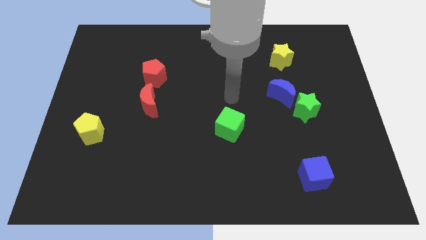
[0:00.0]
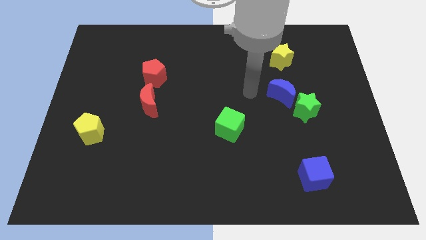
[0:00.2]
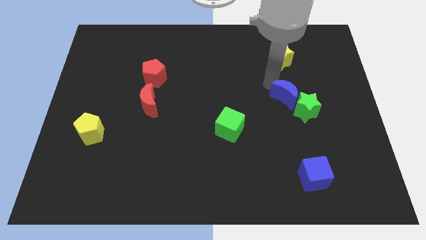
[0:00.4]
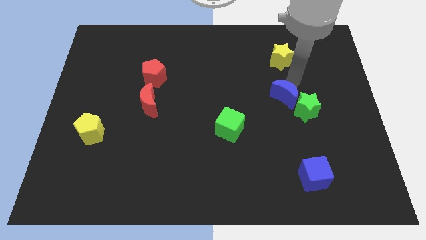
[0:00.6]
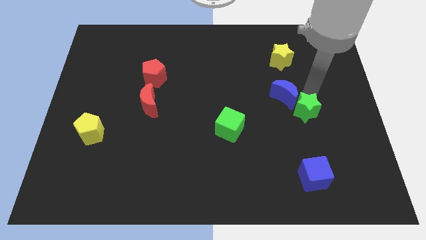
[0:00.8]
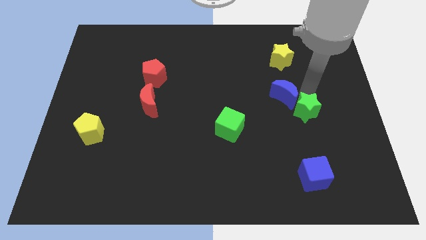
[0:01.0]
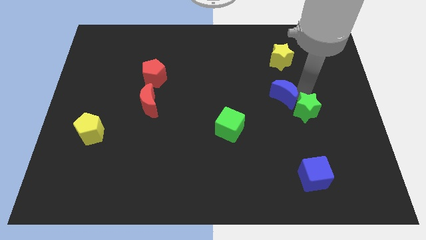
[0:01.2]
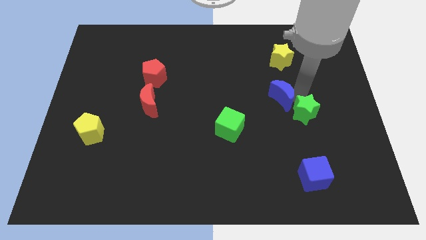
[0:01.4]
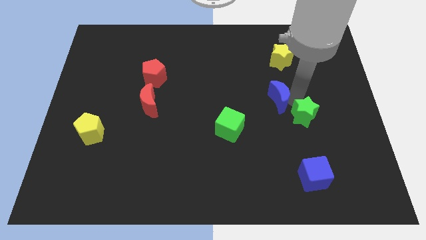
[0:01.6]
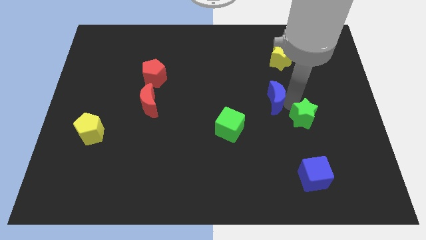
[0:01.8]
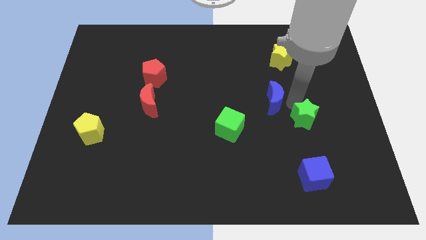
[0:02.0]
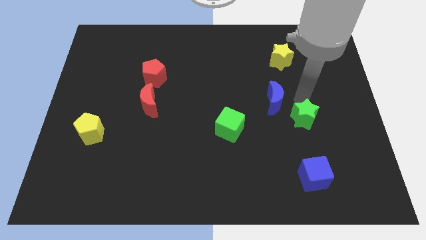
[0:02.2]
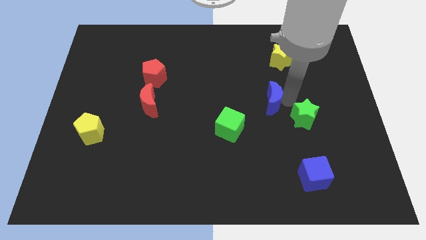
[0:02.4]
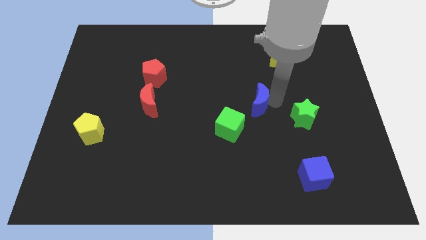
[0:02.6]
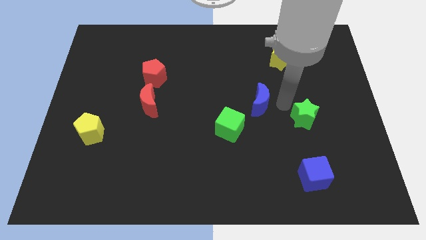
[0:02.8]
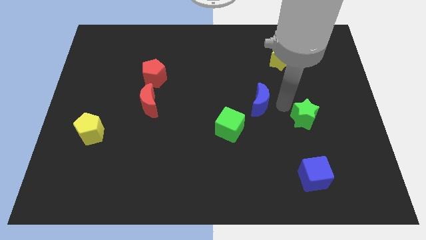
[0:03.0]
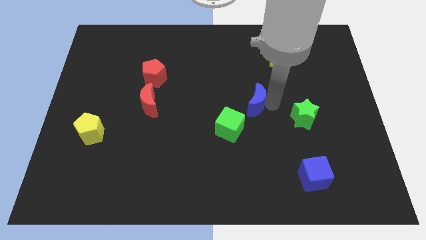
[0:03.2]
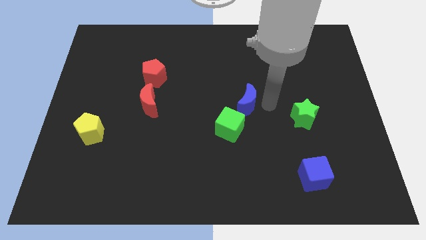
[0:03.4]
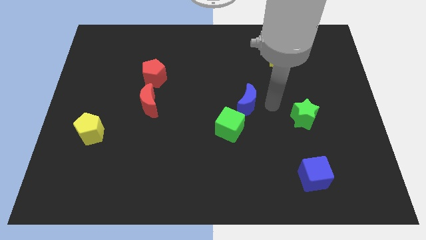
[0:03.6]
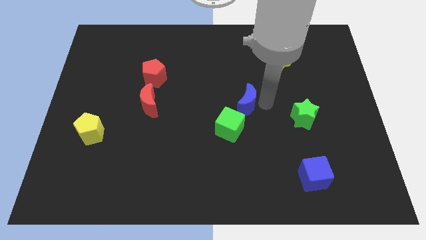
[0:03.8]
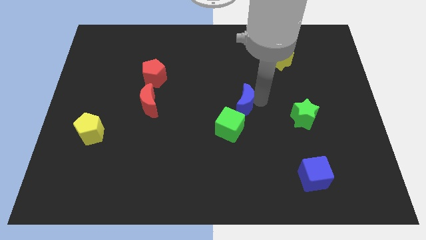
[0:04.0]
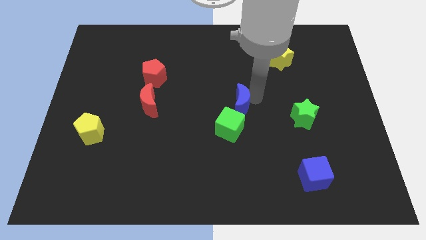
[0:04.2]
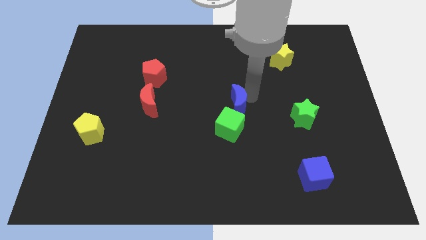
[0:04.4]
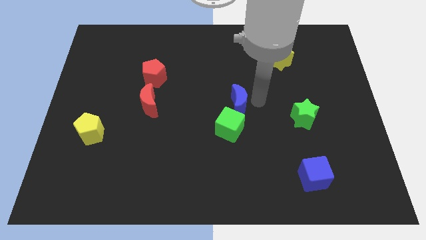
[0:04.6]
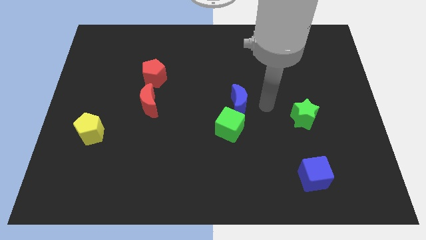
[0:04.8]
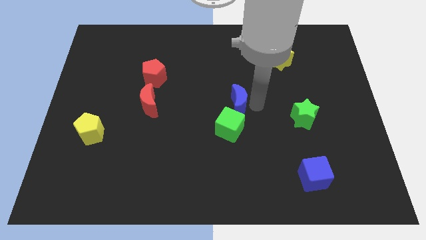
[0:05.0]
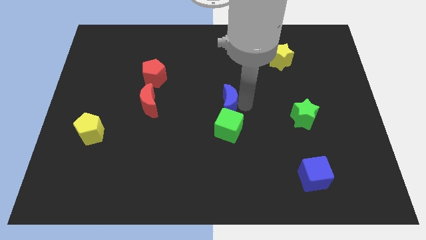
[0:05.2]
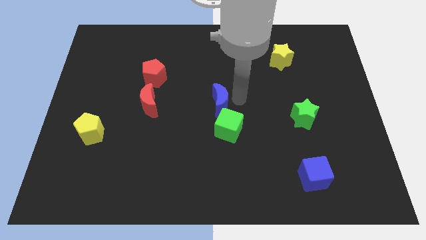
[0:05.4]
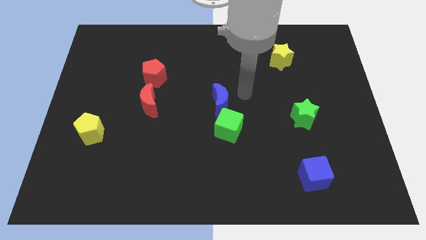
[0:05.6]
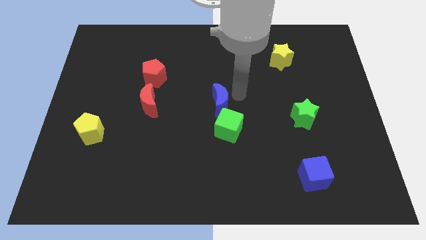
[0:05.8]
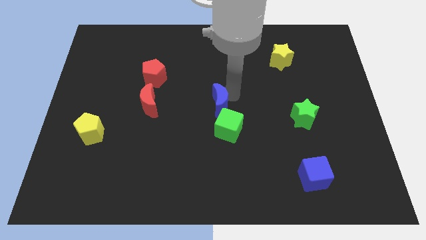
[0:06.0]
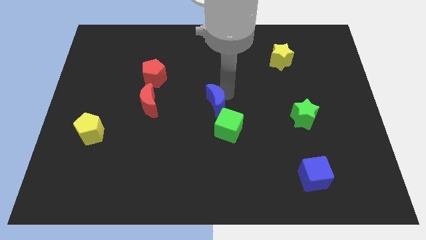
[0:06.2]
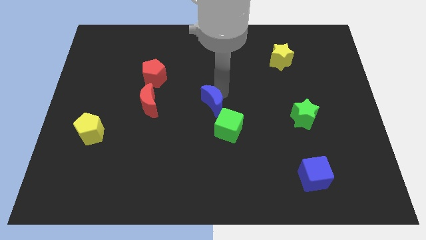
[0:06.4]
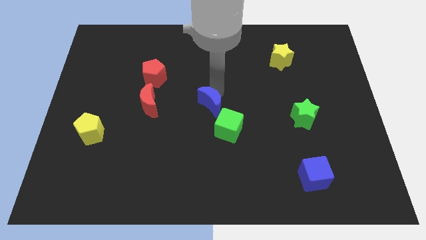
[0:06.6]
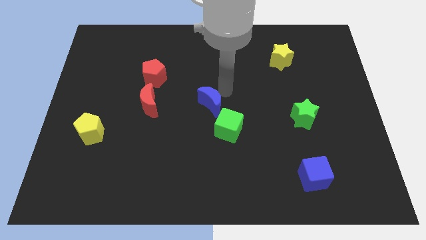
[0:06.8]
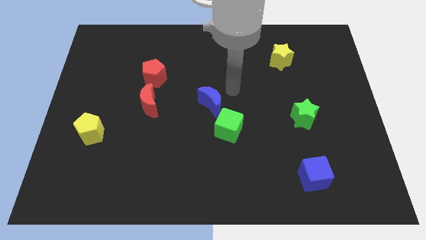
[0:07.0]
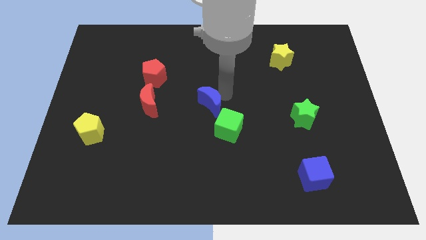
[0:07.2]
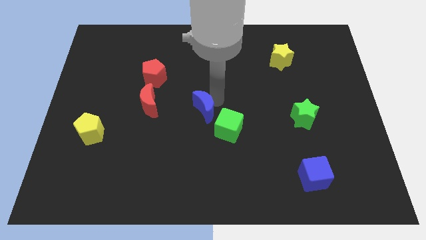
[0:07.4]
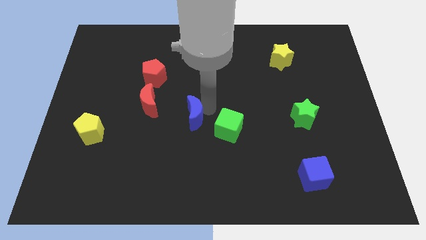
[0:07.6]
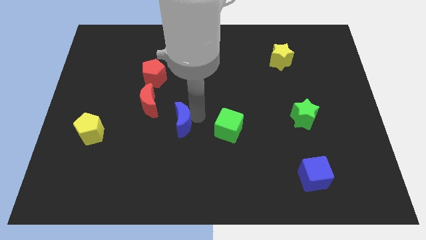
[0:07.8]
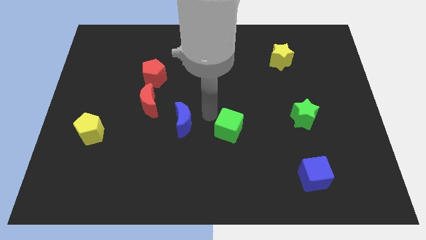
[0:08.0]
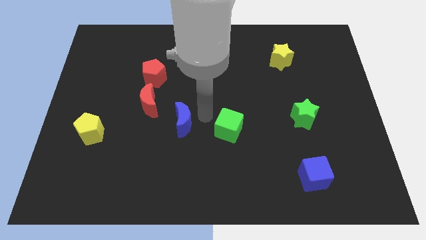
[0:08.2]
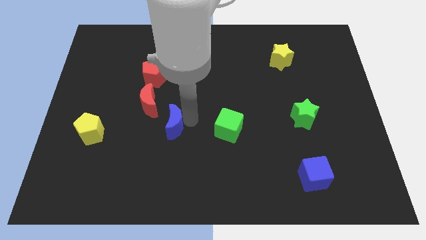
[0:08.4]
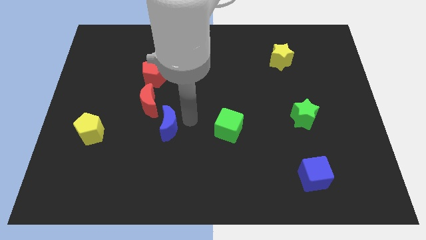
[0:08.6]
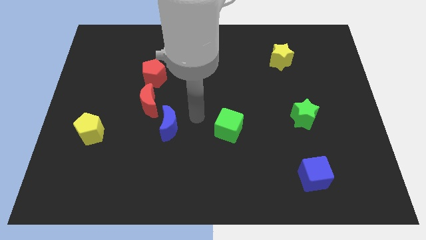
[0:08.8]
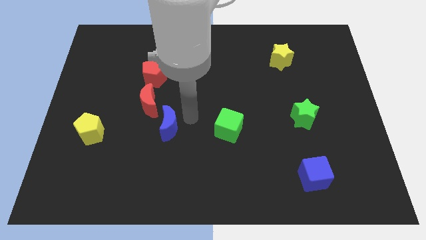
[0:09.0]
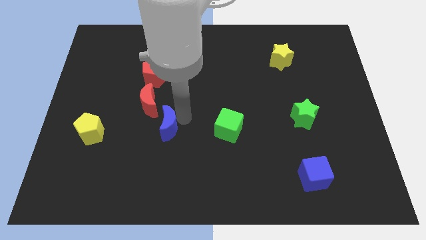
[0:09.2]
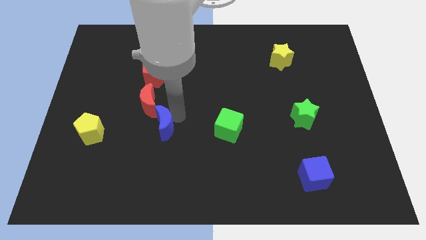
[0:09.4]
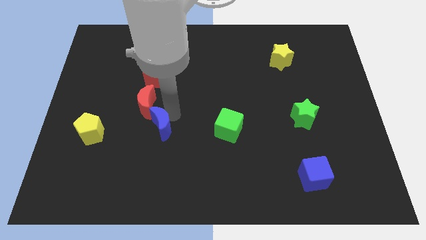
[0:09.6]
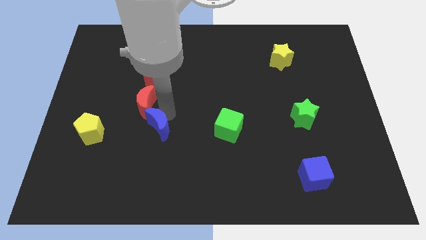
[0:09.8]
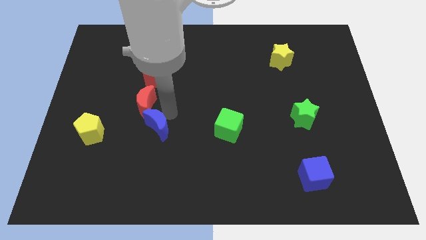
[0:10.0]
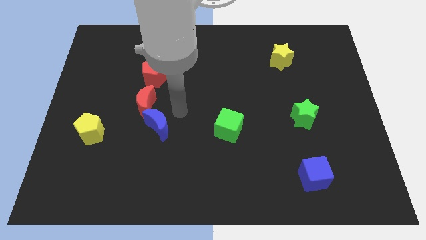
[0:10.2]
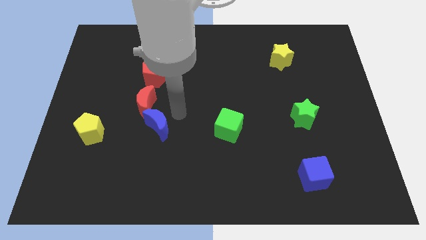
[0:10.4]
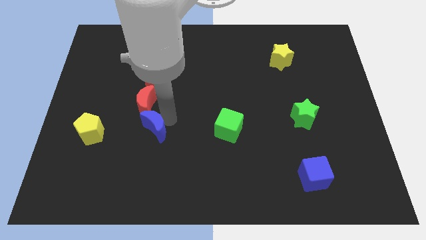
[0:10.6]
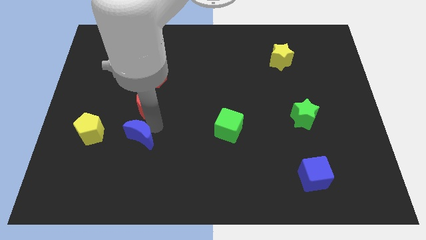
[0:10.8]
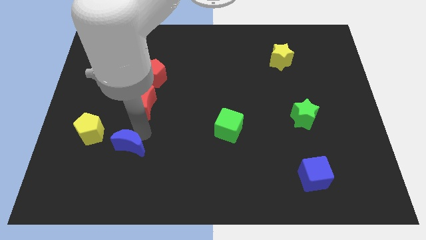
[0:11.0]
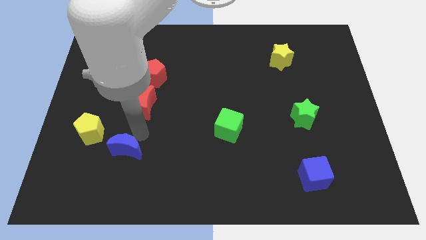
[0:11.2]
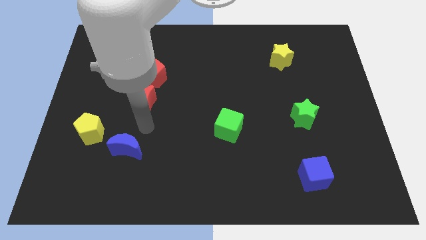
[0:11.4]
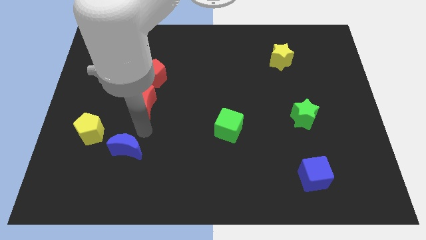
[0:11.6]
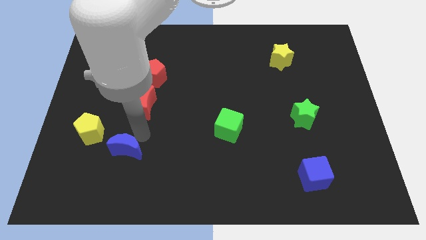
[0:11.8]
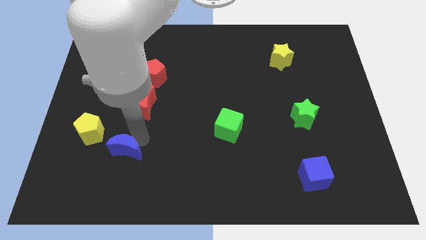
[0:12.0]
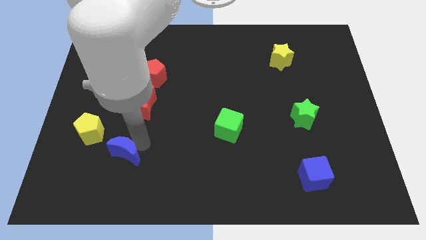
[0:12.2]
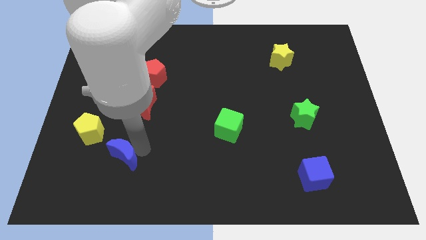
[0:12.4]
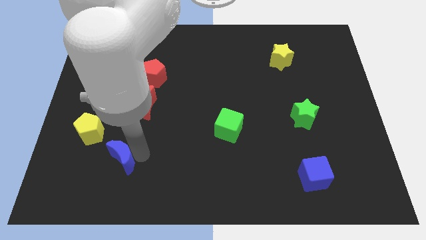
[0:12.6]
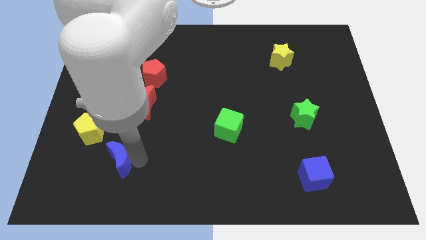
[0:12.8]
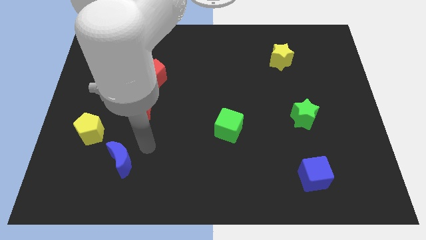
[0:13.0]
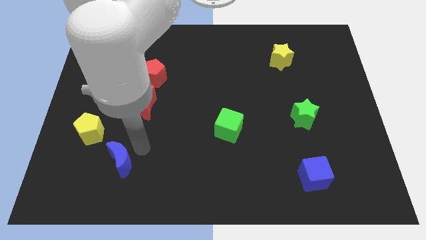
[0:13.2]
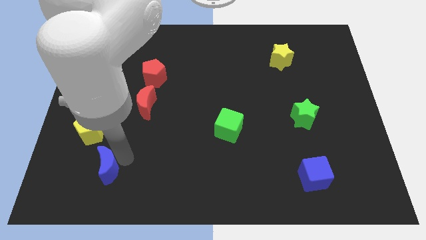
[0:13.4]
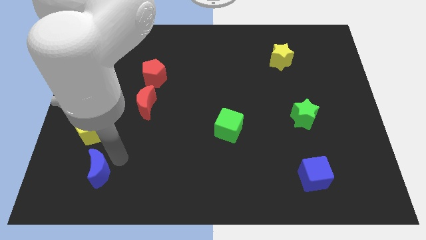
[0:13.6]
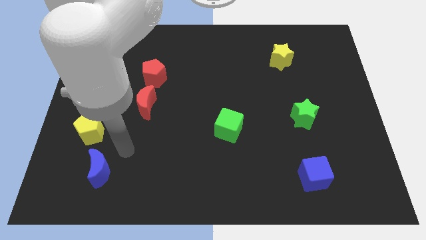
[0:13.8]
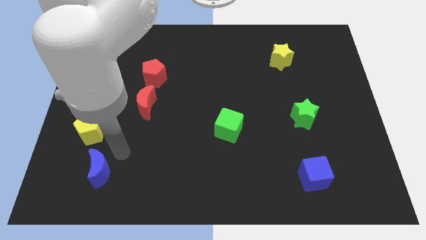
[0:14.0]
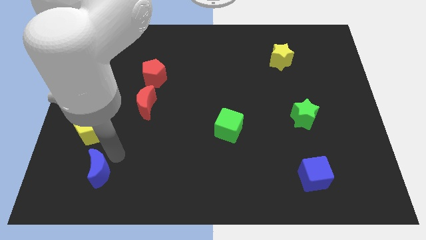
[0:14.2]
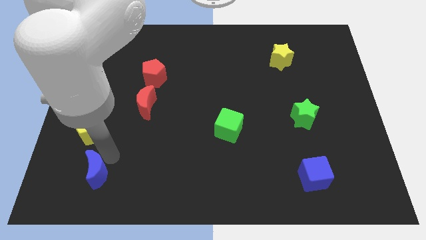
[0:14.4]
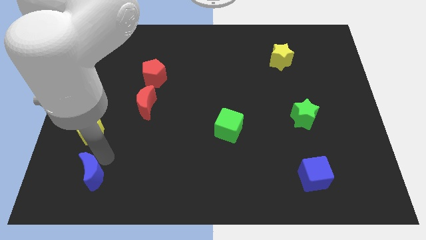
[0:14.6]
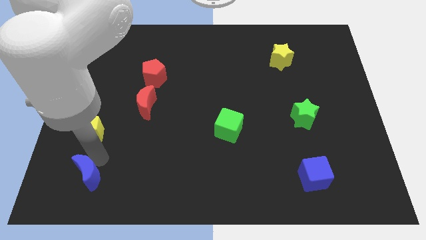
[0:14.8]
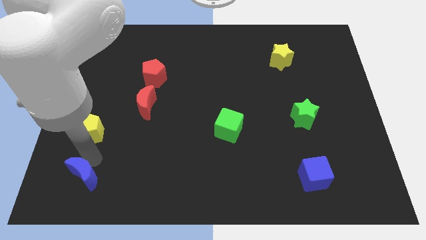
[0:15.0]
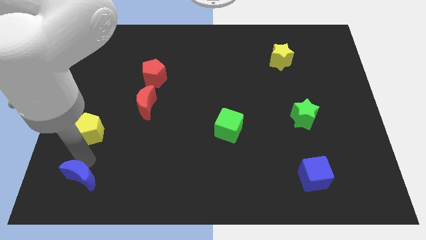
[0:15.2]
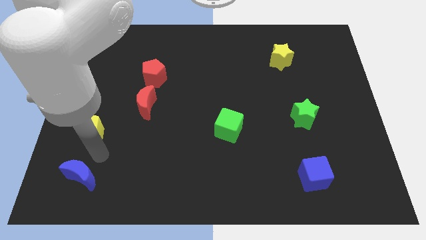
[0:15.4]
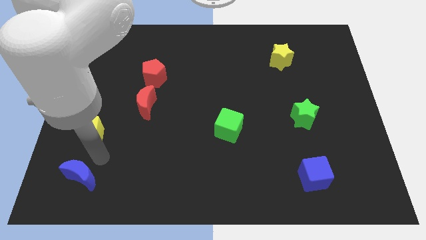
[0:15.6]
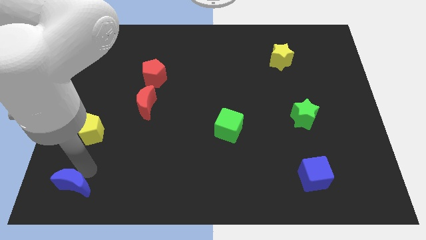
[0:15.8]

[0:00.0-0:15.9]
push the blue moon to the lower left corner
